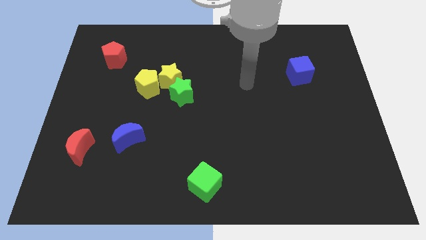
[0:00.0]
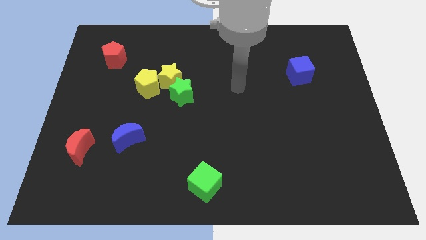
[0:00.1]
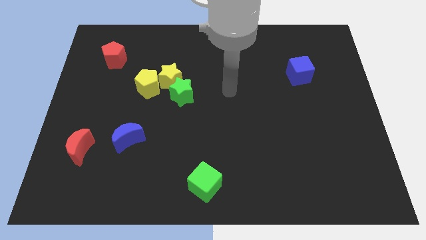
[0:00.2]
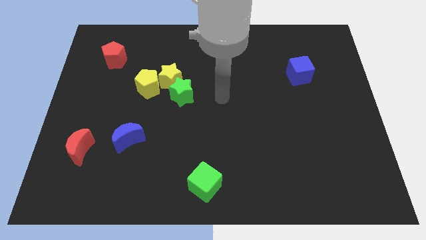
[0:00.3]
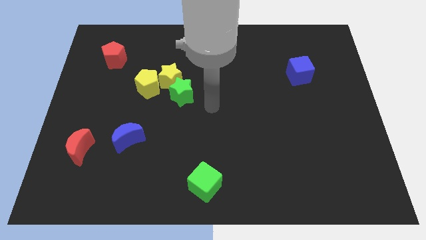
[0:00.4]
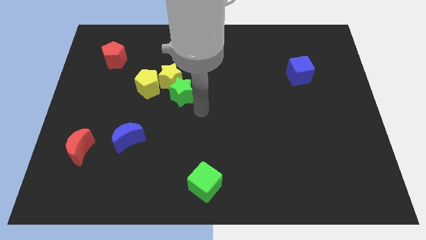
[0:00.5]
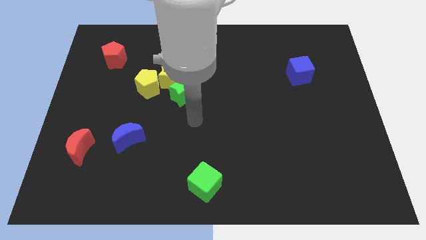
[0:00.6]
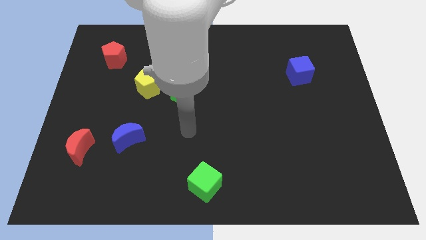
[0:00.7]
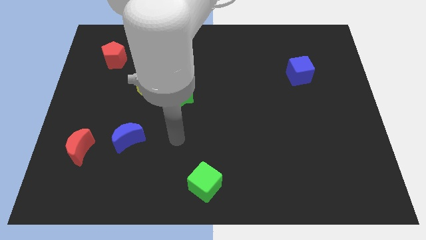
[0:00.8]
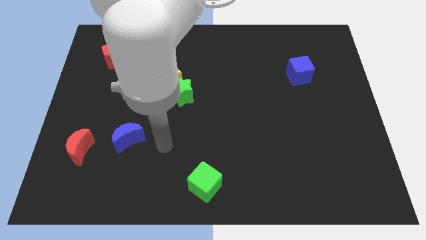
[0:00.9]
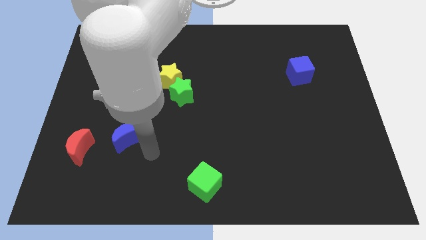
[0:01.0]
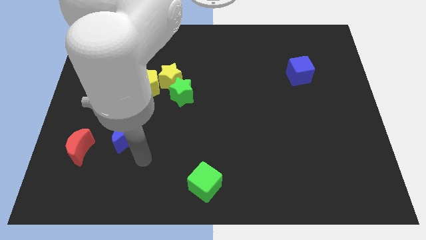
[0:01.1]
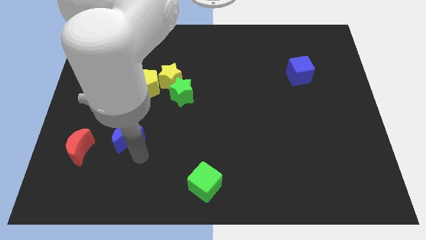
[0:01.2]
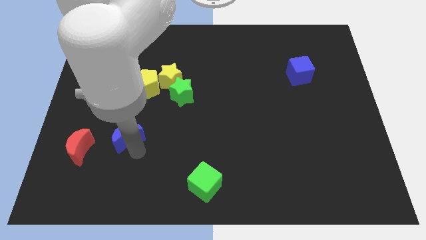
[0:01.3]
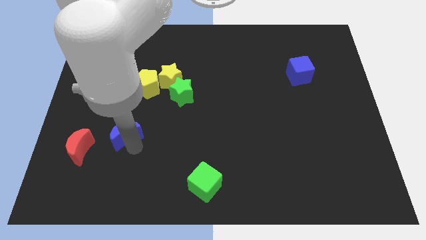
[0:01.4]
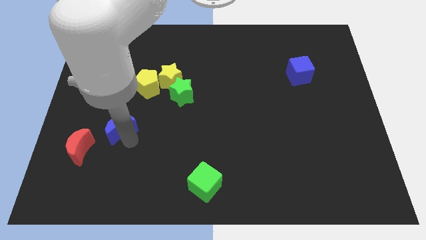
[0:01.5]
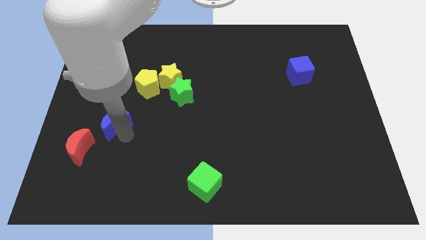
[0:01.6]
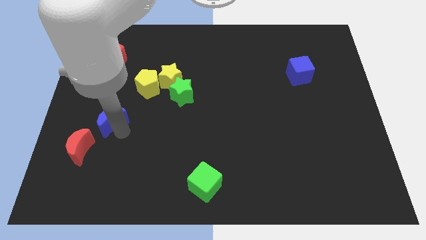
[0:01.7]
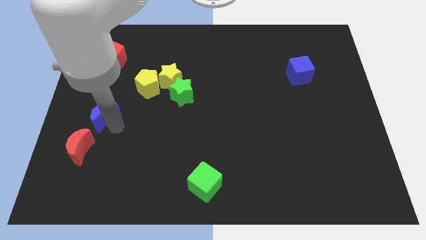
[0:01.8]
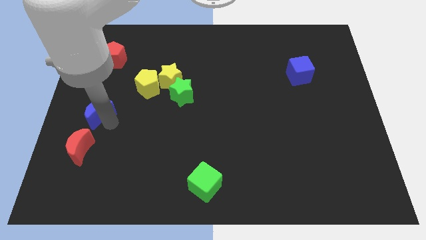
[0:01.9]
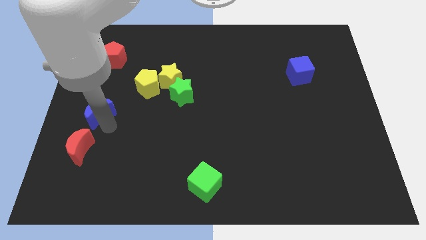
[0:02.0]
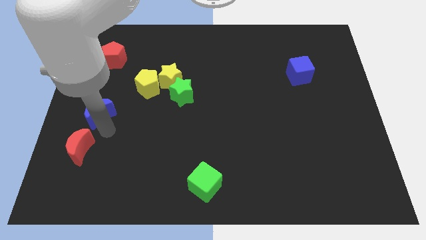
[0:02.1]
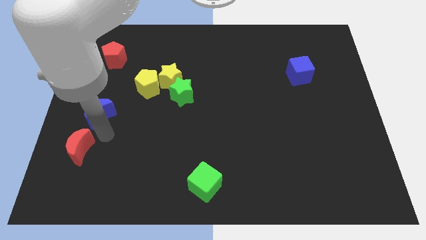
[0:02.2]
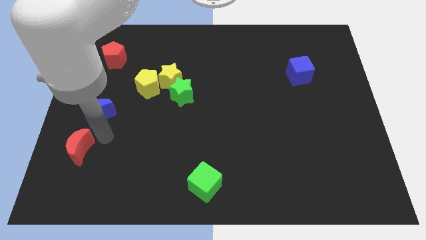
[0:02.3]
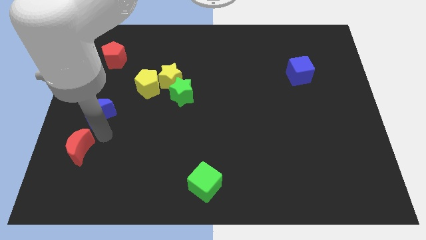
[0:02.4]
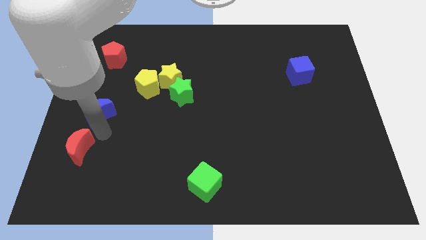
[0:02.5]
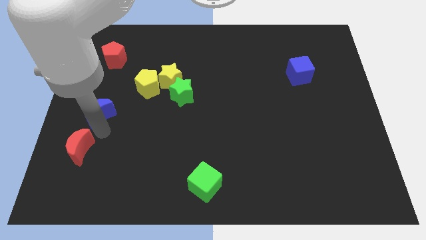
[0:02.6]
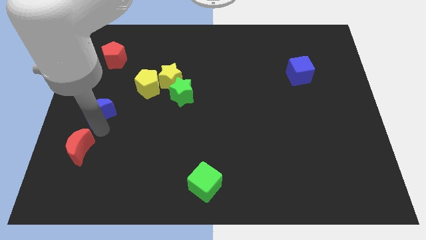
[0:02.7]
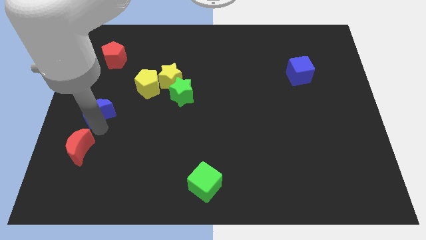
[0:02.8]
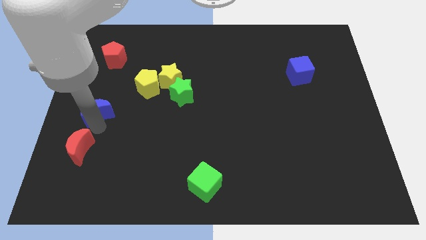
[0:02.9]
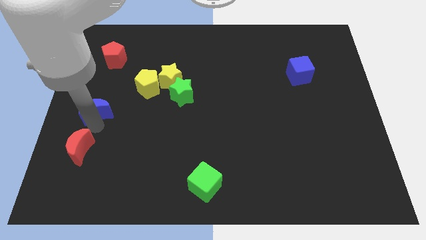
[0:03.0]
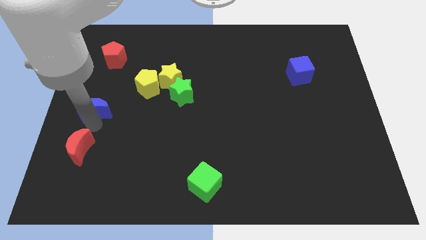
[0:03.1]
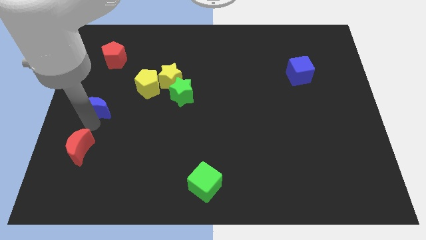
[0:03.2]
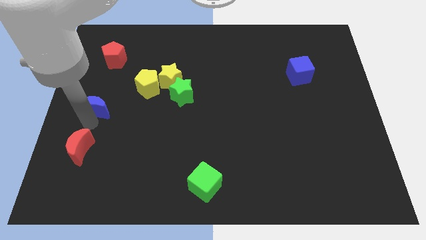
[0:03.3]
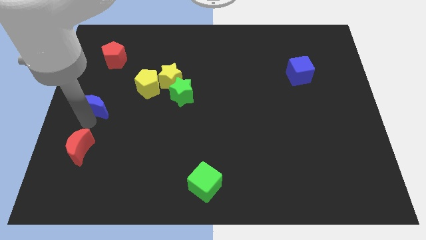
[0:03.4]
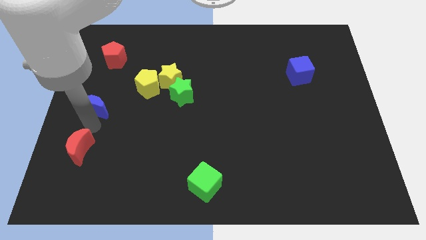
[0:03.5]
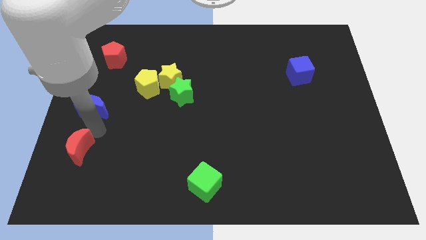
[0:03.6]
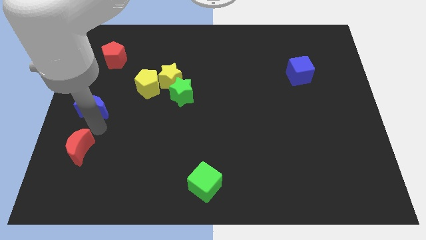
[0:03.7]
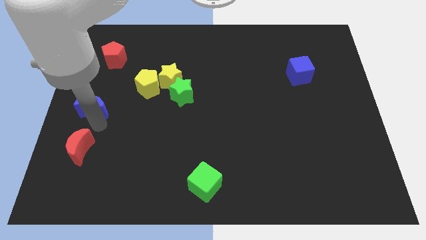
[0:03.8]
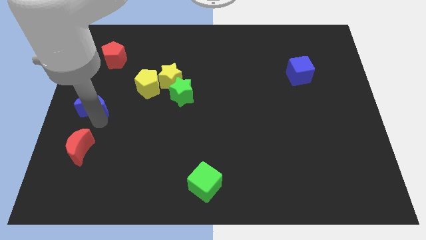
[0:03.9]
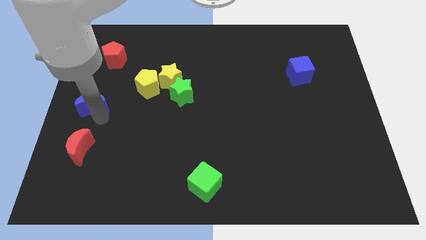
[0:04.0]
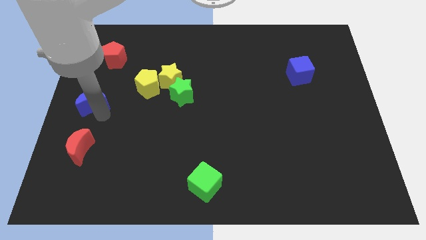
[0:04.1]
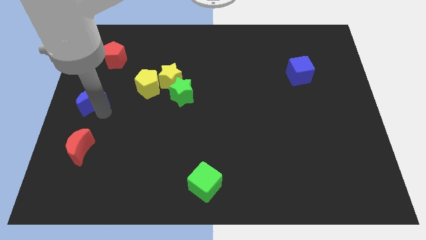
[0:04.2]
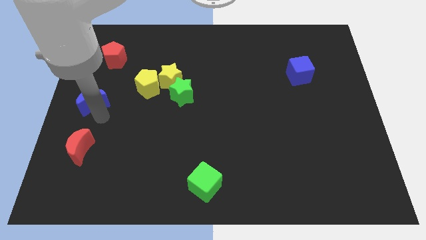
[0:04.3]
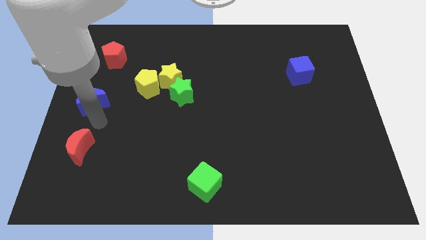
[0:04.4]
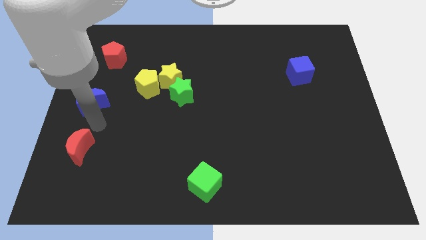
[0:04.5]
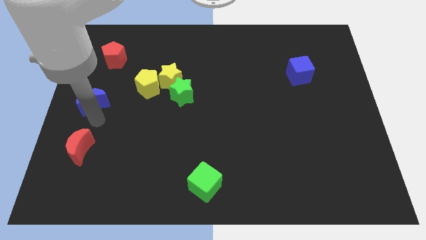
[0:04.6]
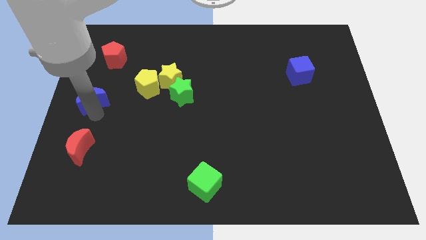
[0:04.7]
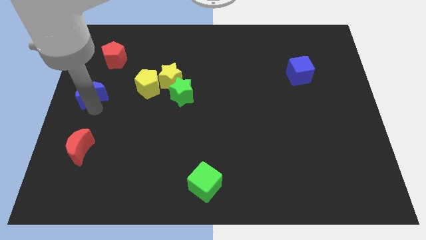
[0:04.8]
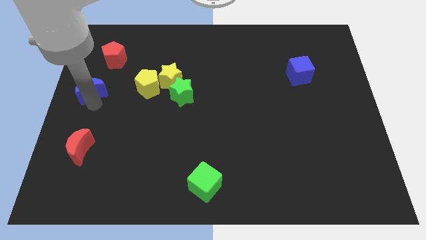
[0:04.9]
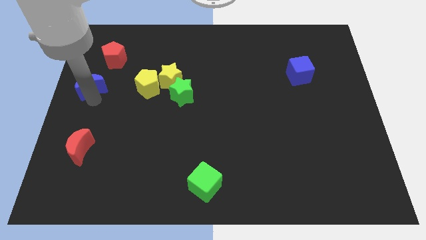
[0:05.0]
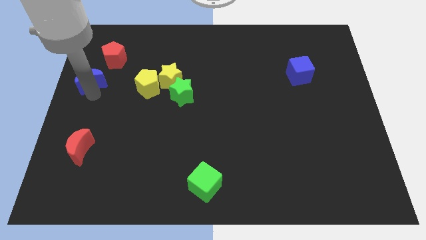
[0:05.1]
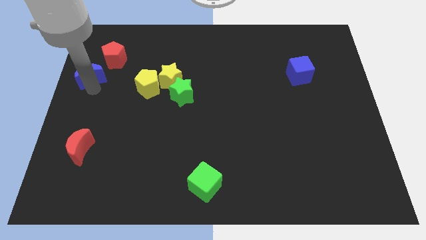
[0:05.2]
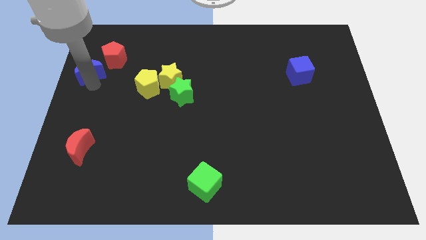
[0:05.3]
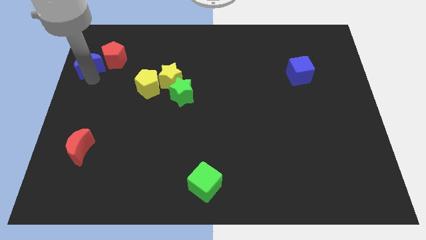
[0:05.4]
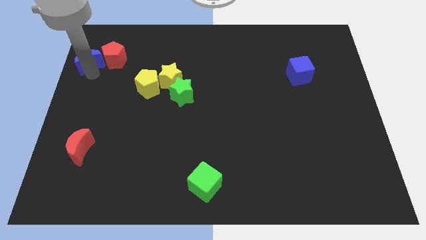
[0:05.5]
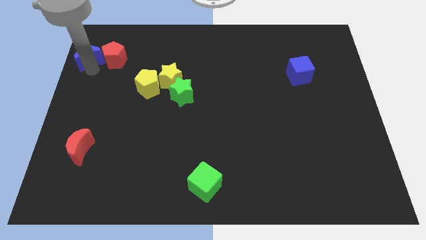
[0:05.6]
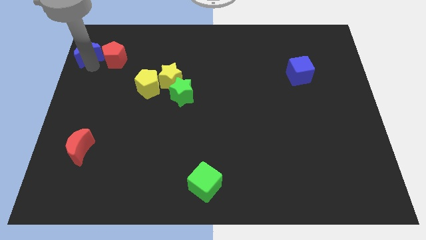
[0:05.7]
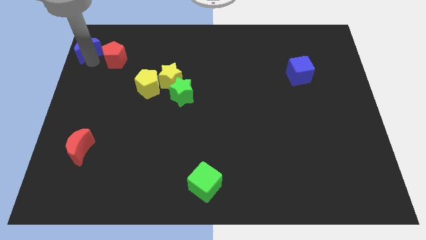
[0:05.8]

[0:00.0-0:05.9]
put the blue moon to the top left

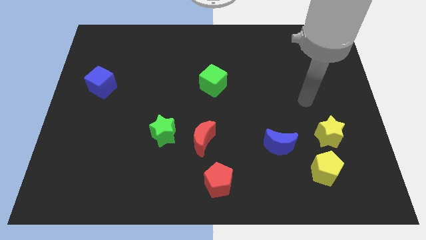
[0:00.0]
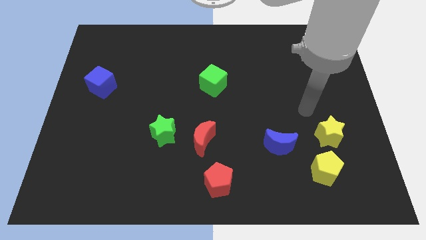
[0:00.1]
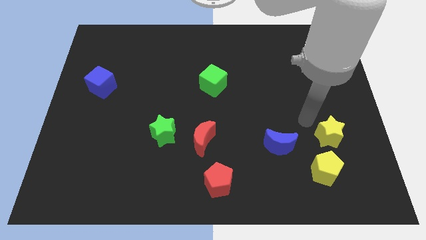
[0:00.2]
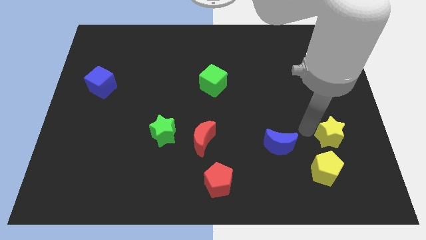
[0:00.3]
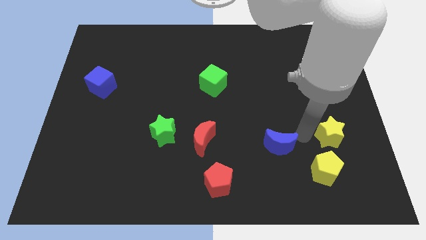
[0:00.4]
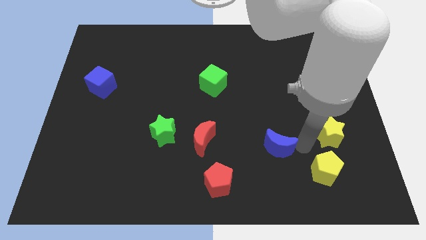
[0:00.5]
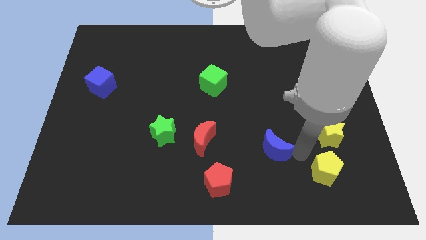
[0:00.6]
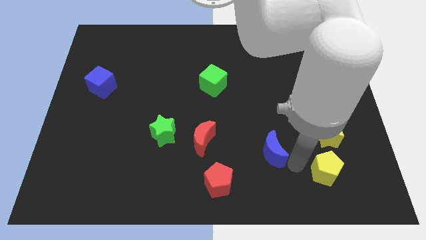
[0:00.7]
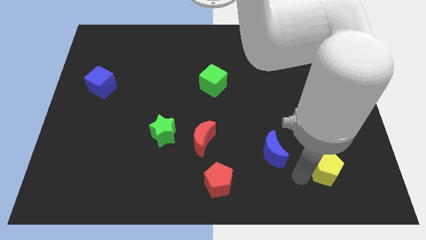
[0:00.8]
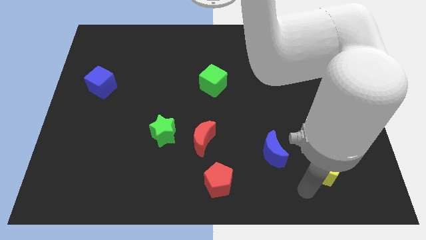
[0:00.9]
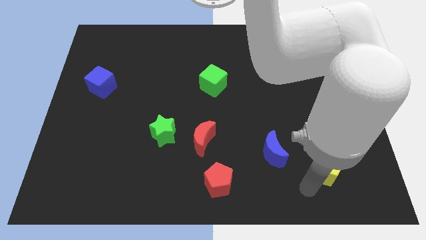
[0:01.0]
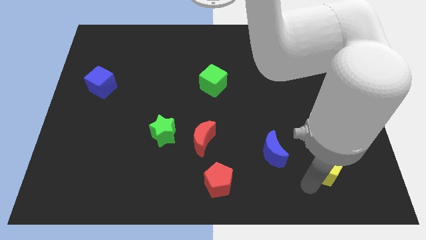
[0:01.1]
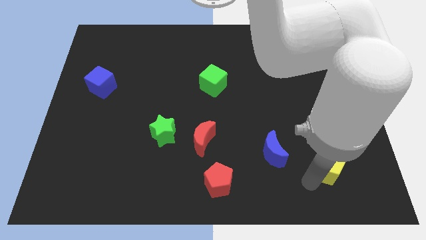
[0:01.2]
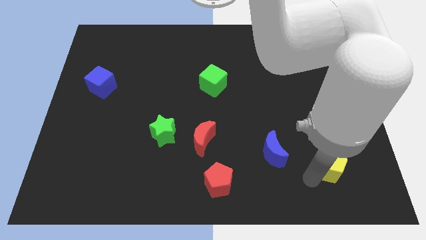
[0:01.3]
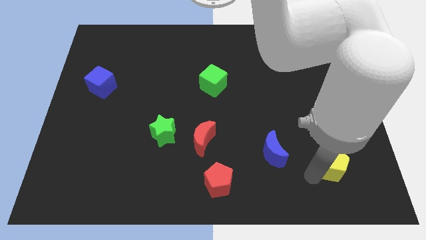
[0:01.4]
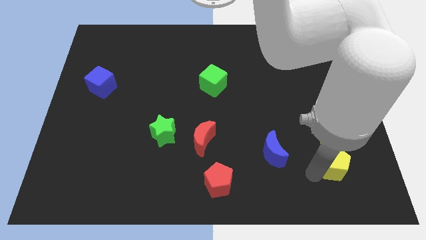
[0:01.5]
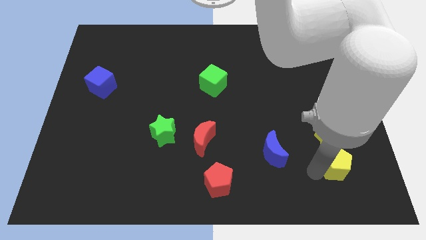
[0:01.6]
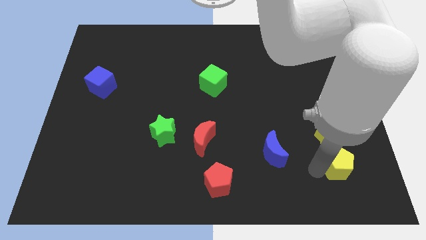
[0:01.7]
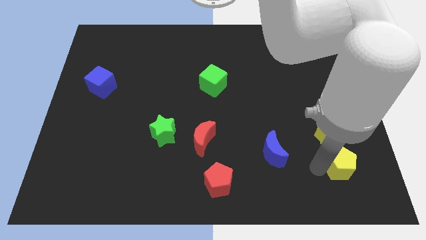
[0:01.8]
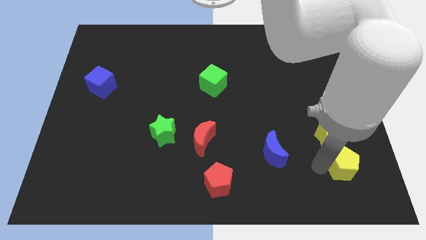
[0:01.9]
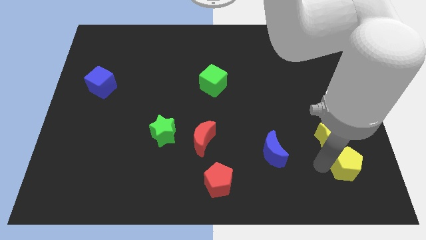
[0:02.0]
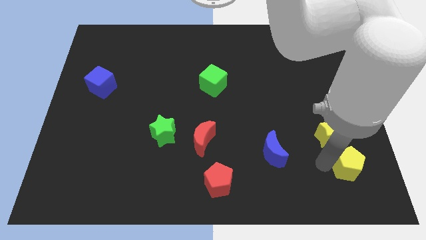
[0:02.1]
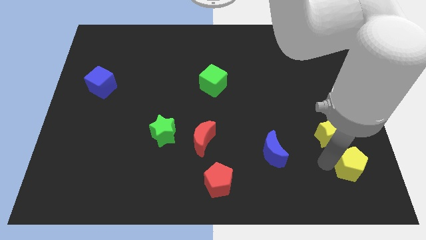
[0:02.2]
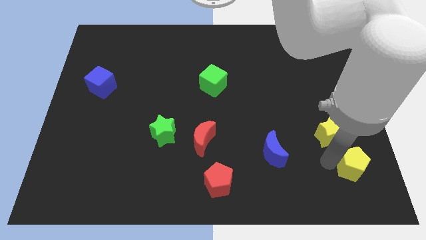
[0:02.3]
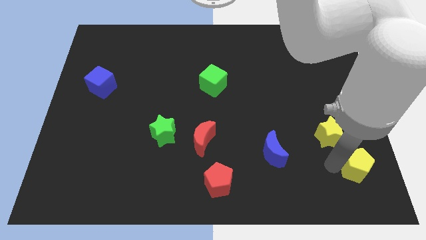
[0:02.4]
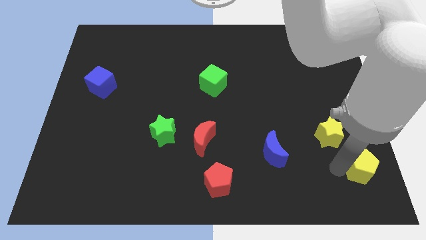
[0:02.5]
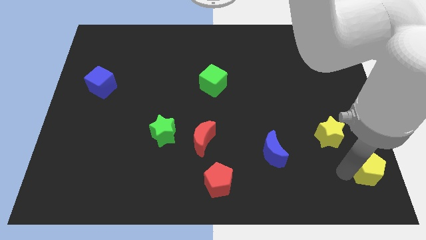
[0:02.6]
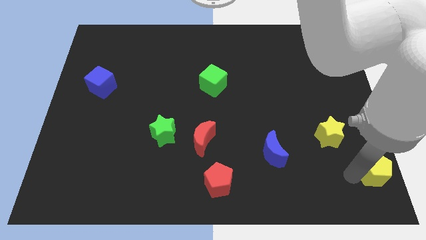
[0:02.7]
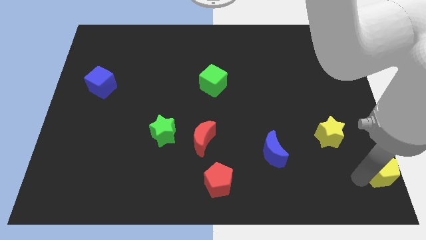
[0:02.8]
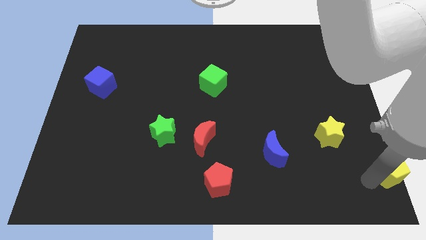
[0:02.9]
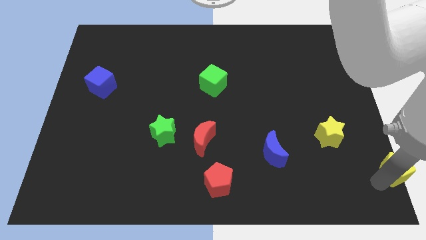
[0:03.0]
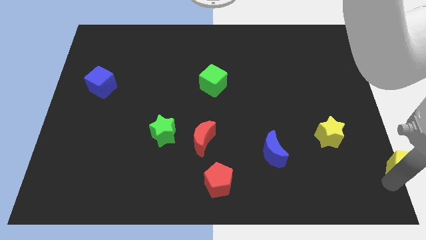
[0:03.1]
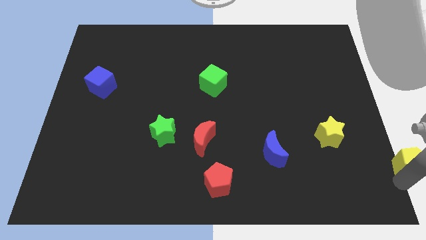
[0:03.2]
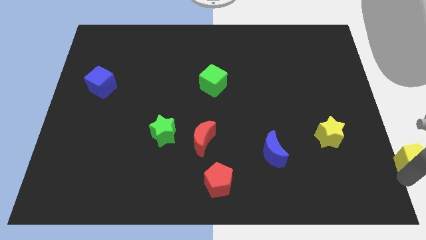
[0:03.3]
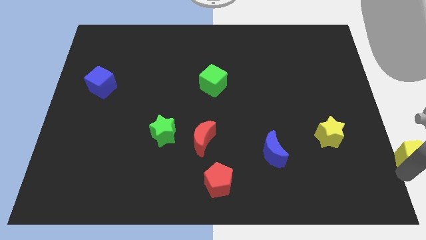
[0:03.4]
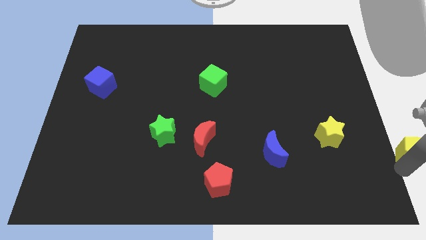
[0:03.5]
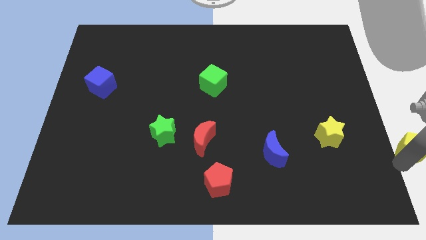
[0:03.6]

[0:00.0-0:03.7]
move the yellow pentagon to the right side of the board
